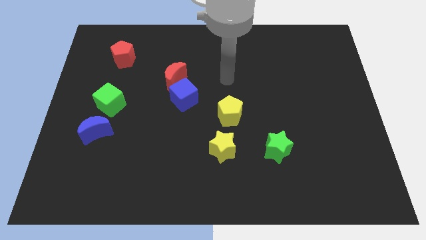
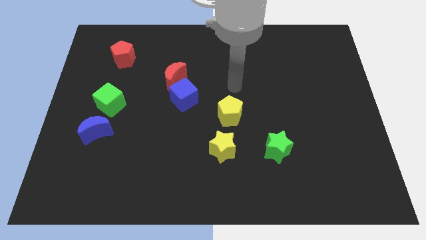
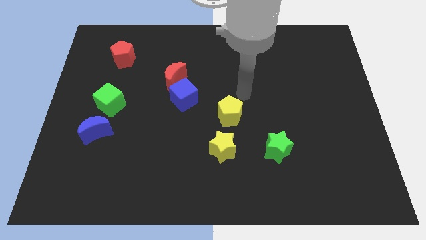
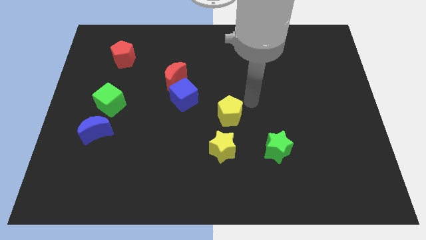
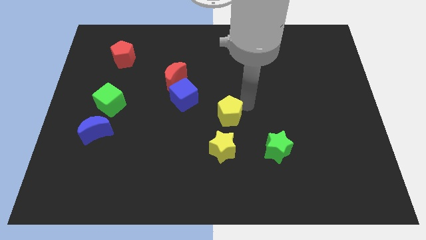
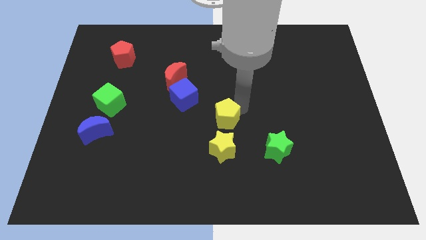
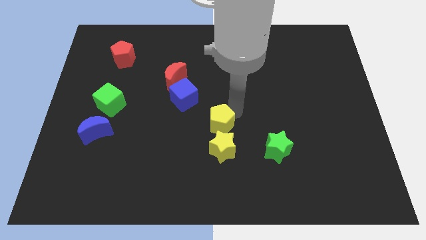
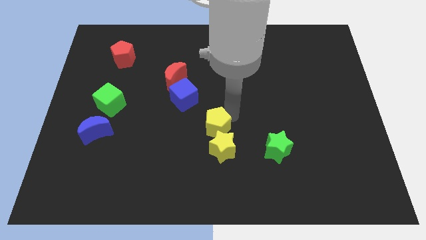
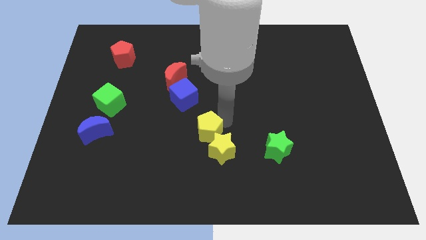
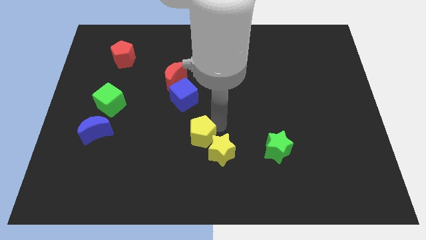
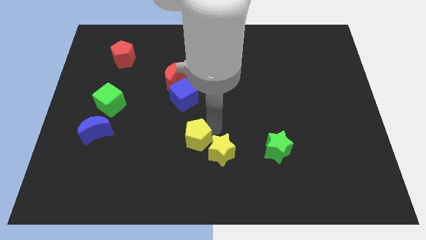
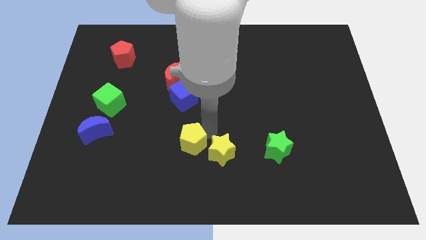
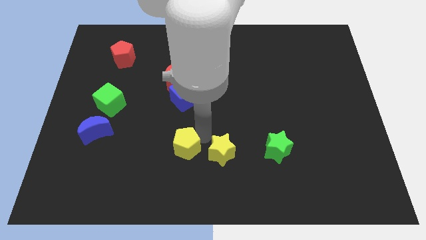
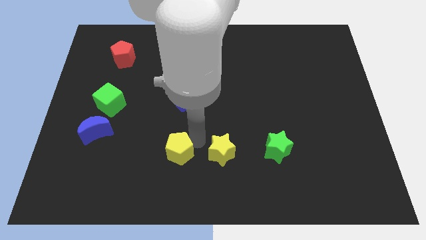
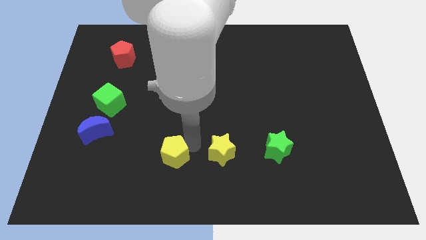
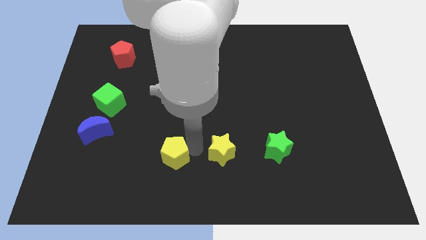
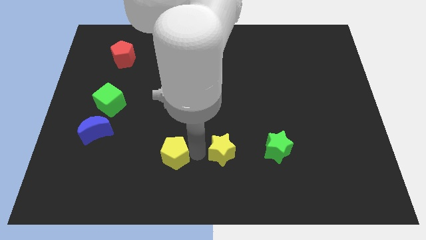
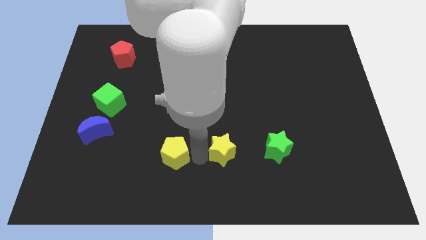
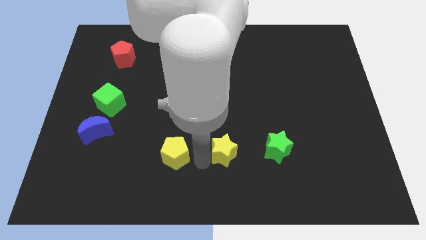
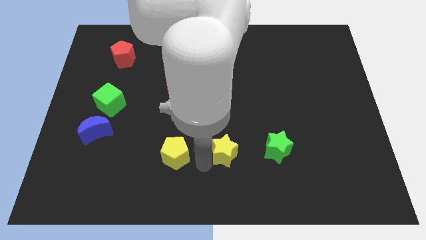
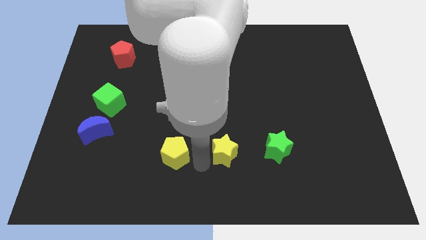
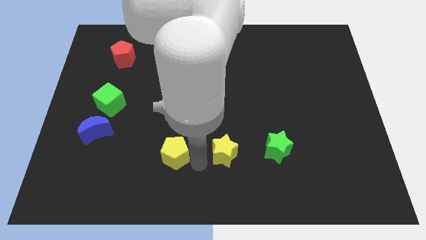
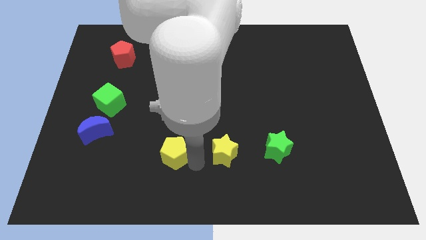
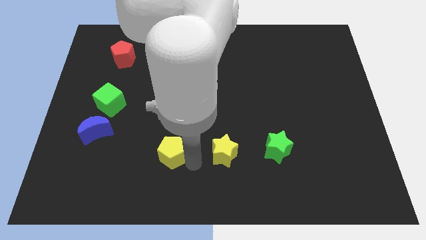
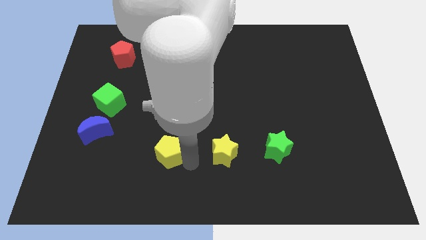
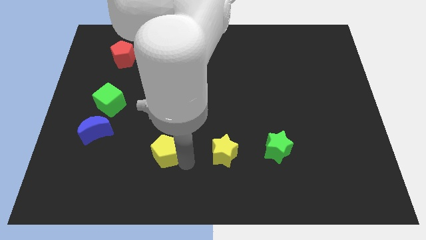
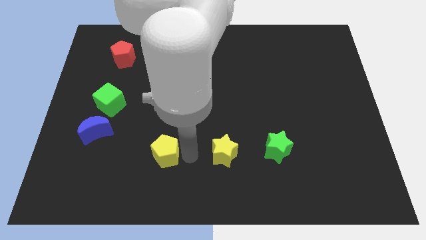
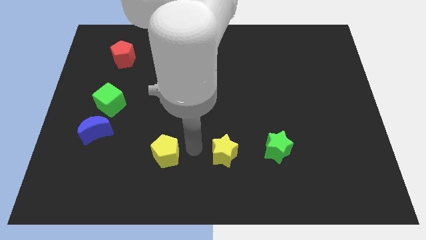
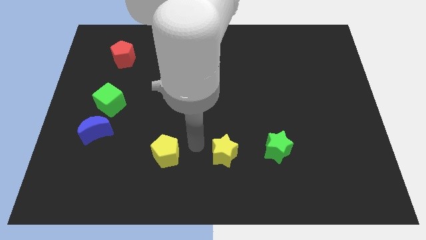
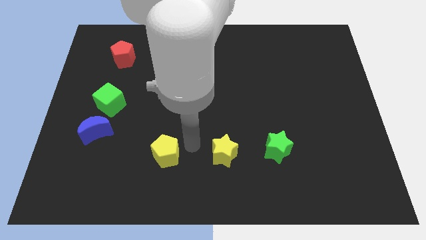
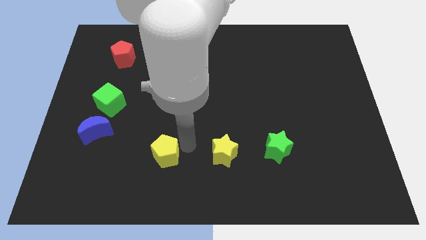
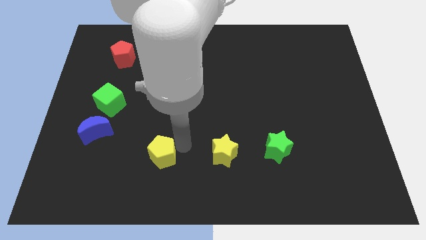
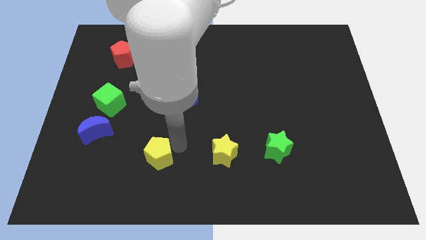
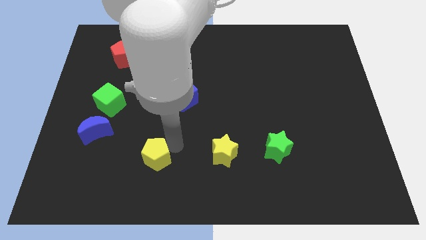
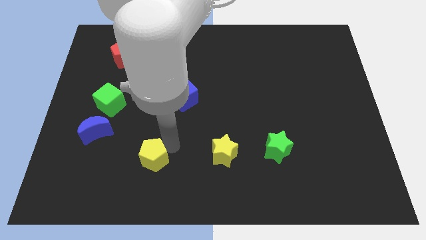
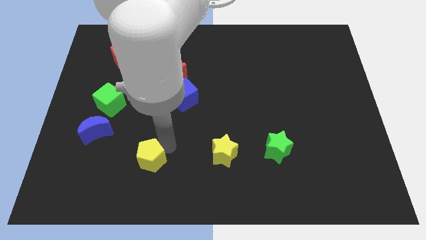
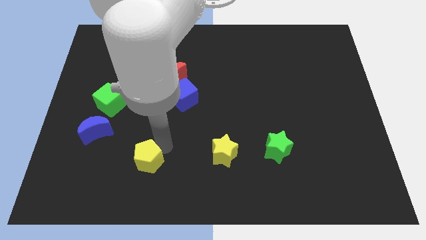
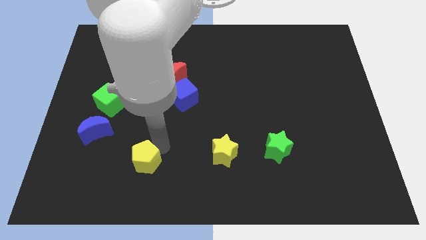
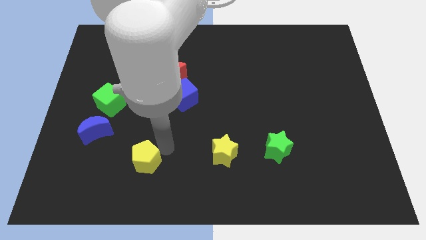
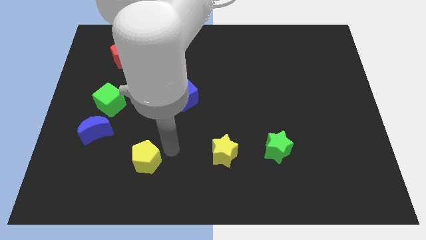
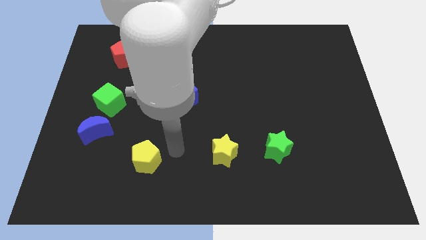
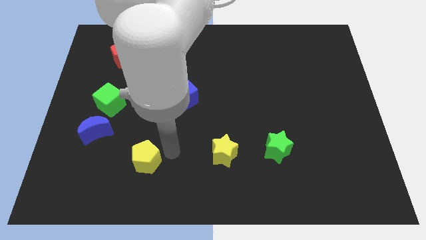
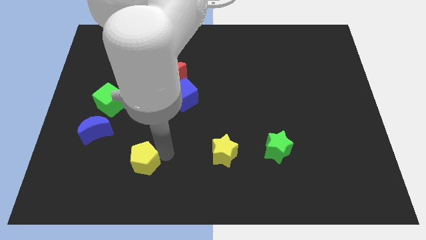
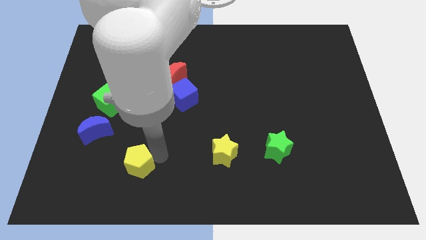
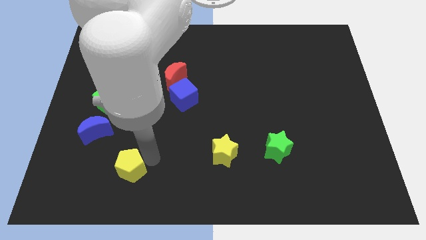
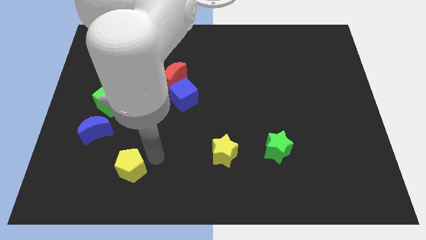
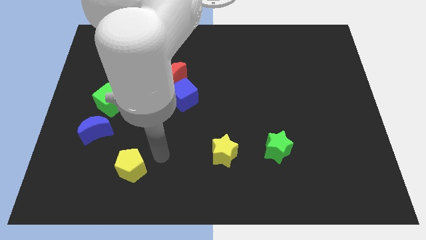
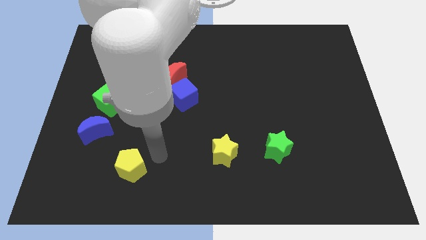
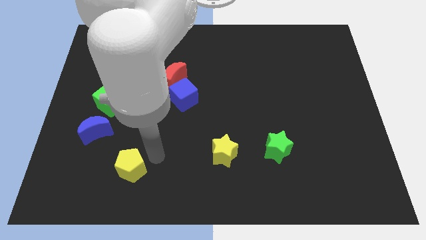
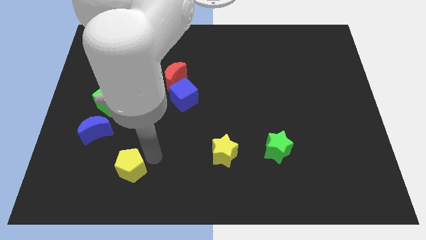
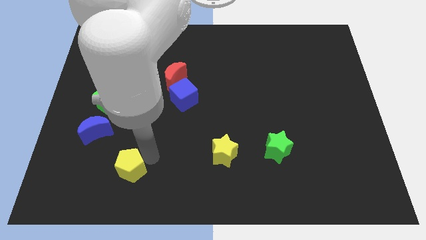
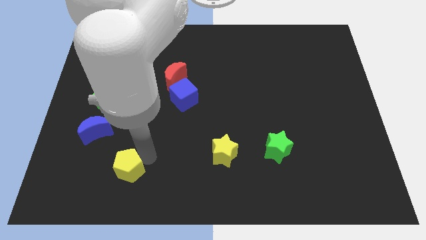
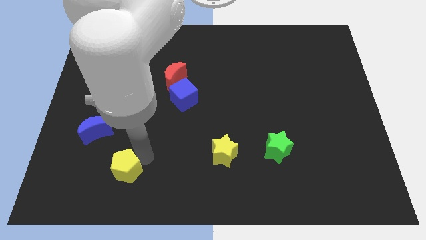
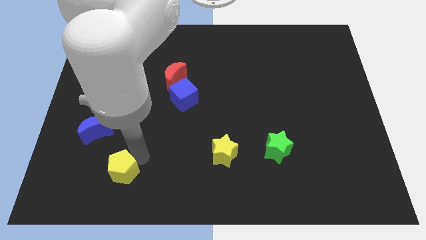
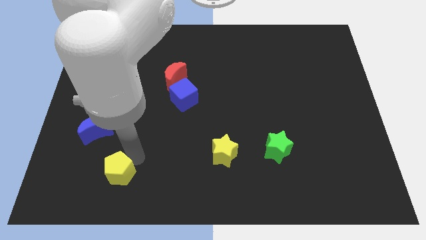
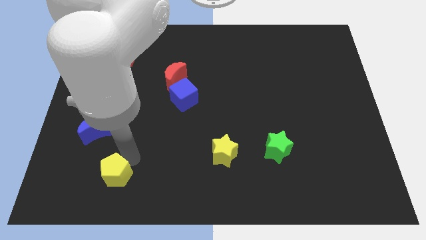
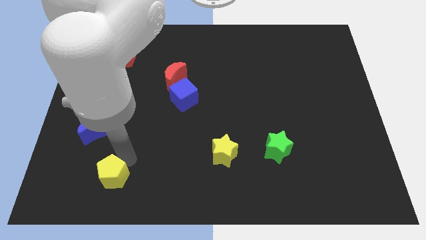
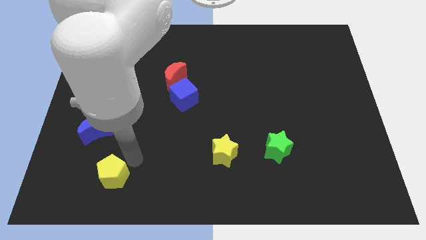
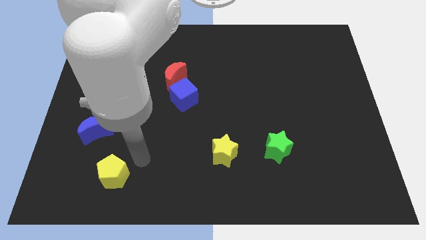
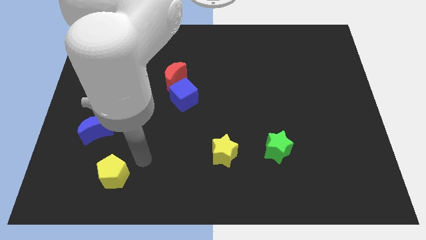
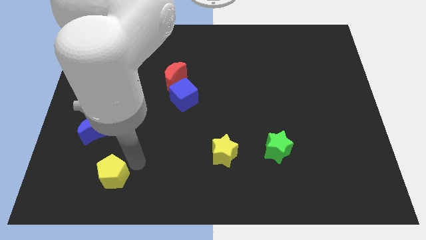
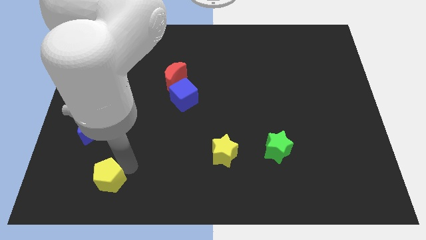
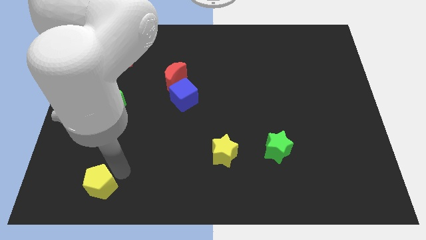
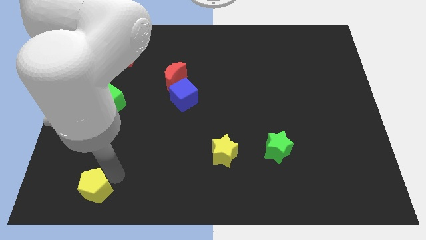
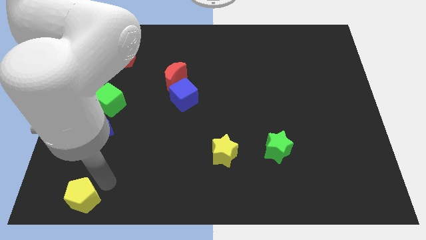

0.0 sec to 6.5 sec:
slide the yellow pentagon to the lower left corner

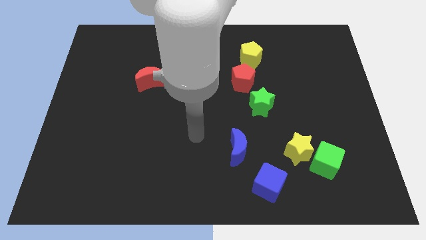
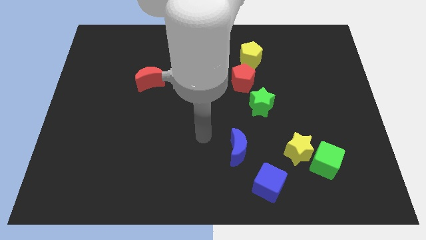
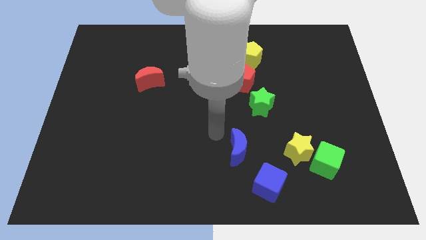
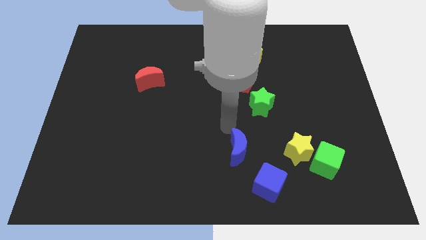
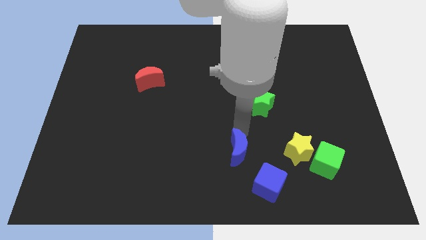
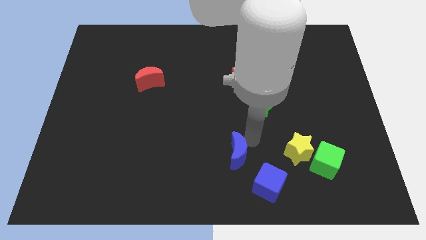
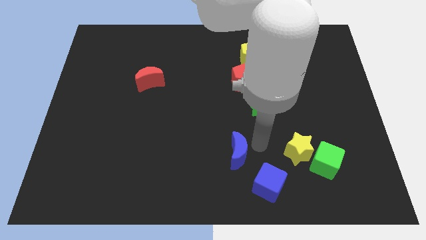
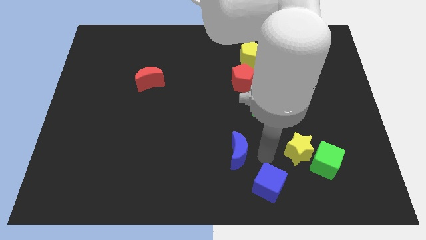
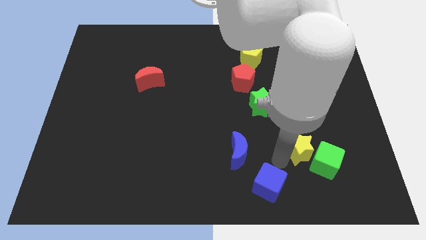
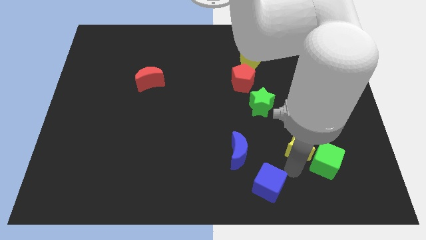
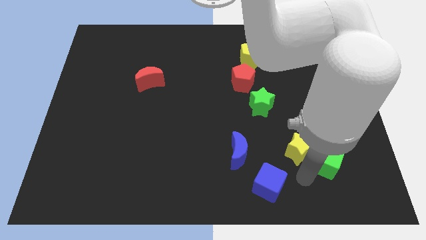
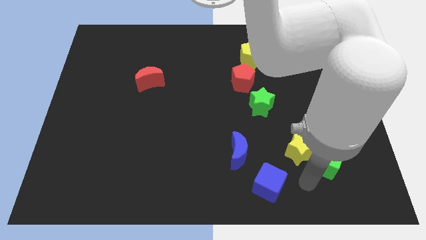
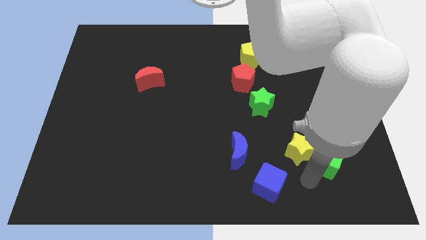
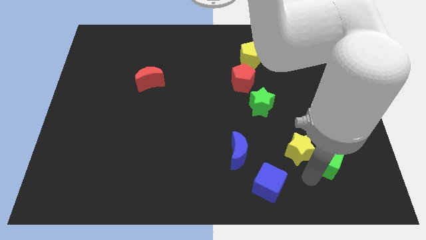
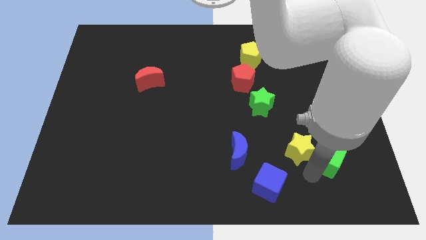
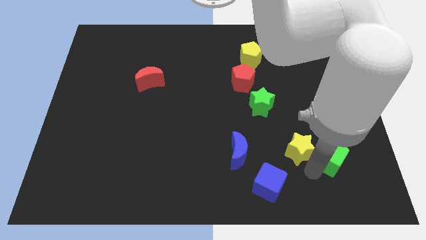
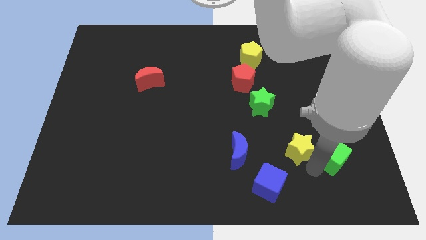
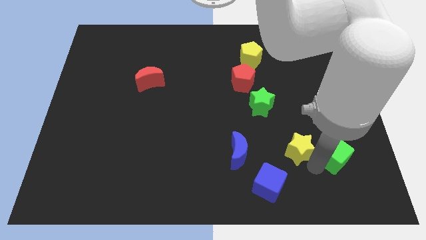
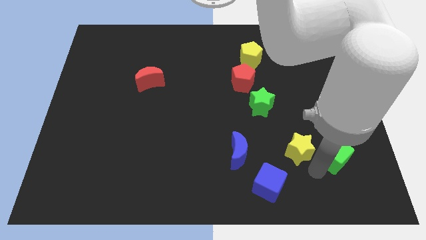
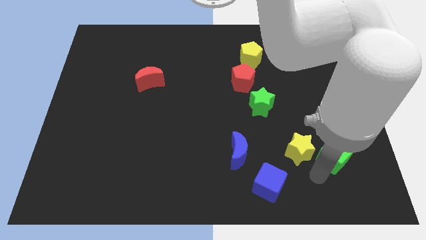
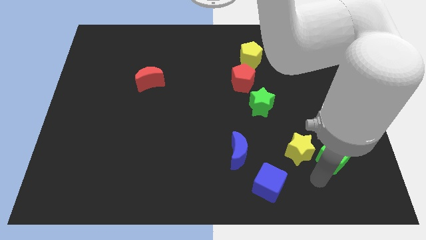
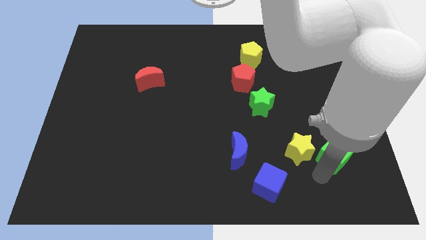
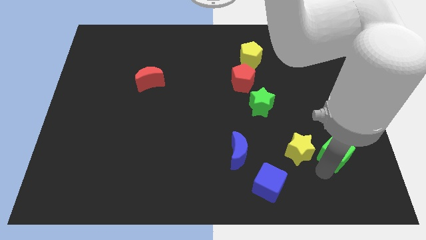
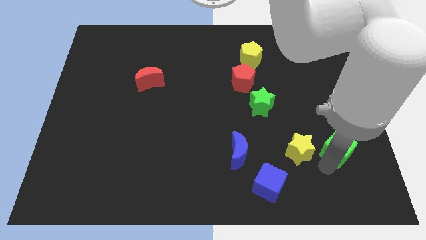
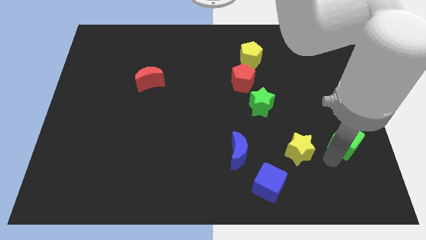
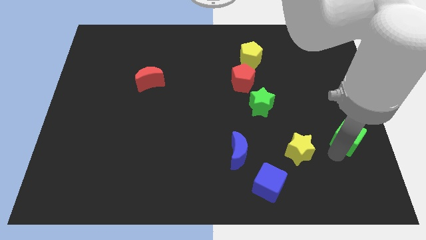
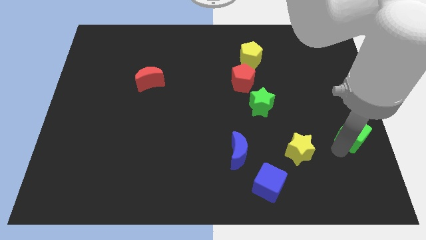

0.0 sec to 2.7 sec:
move the green cube to the center right
